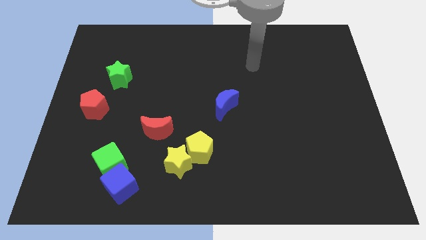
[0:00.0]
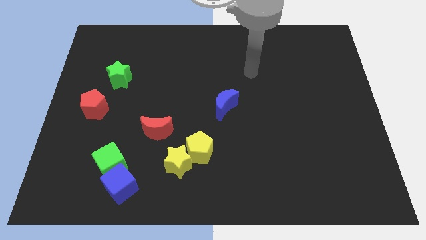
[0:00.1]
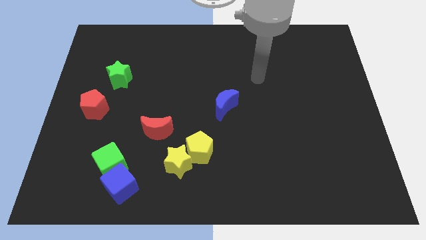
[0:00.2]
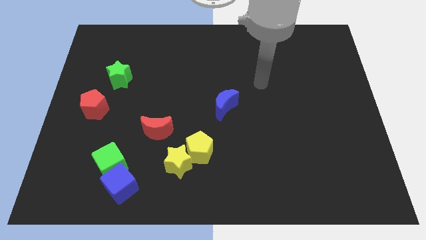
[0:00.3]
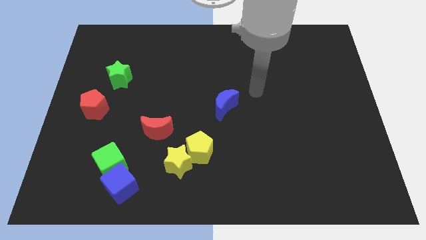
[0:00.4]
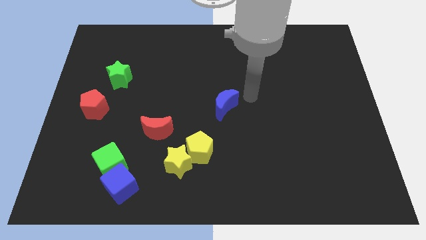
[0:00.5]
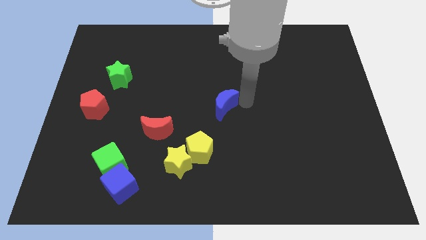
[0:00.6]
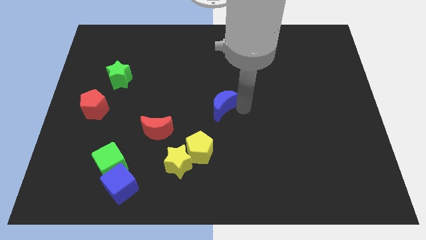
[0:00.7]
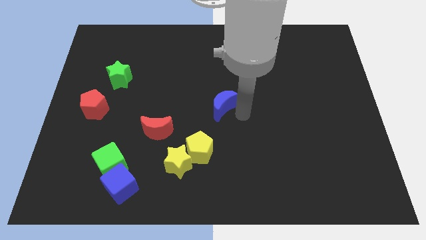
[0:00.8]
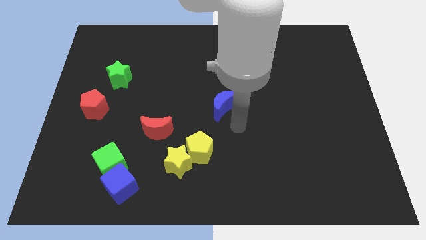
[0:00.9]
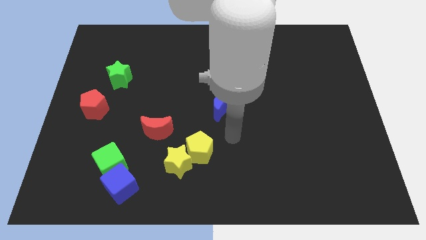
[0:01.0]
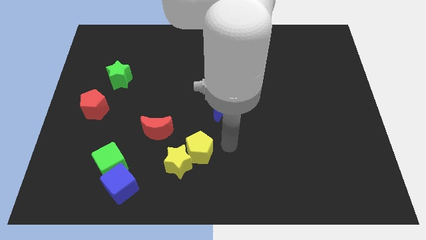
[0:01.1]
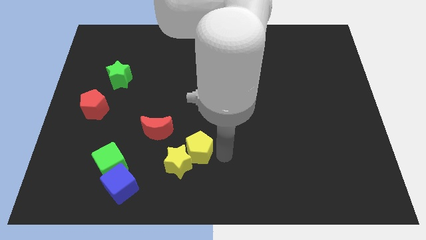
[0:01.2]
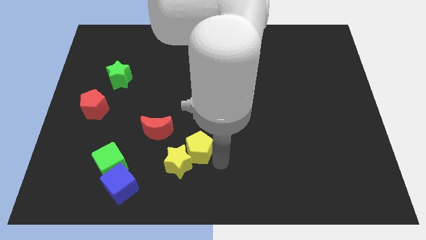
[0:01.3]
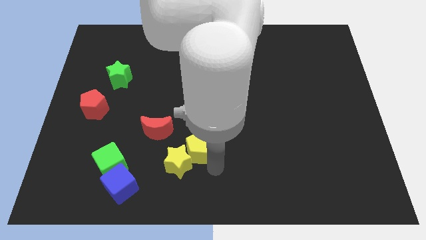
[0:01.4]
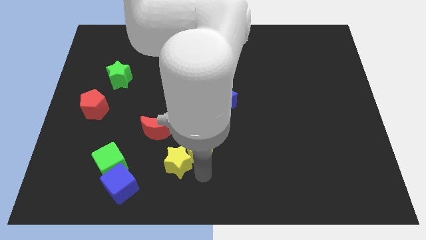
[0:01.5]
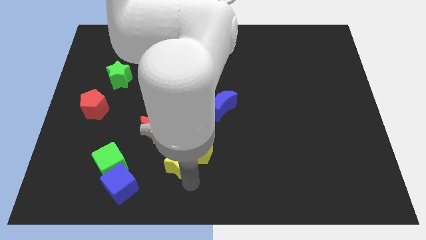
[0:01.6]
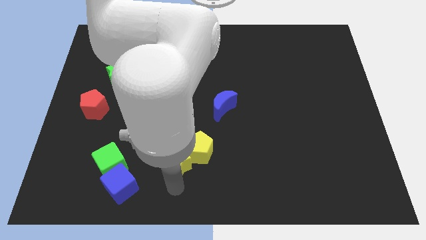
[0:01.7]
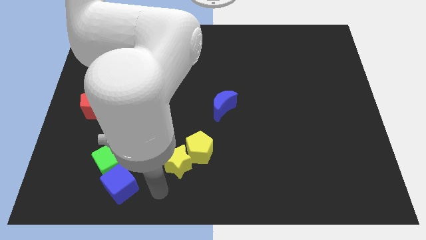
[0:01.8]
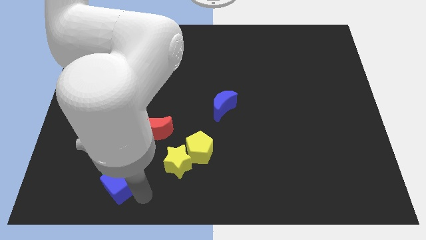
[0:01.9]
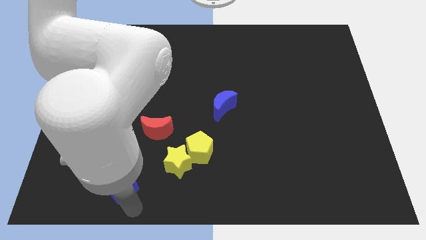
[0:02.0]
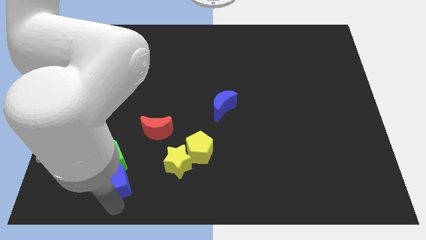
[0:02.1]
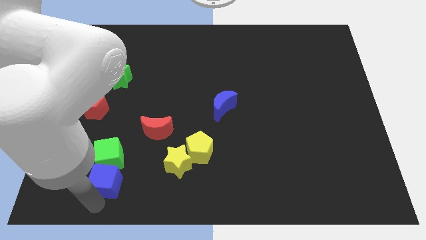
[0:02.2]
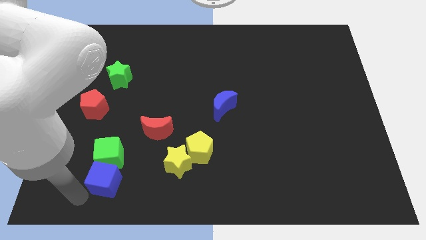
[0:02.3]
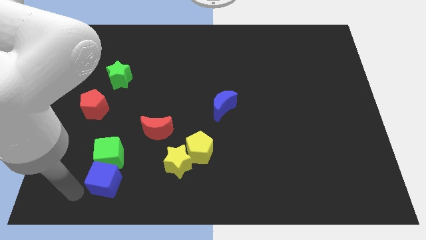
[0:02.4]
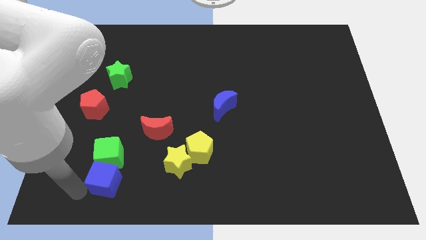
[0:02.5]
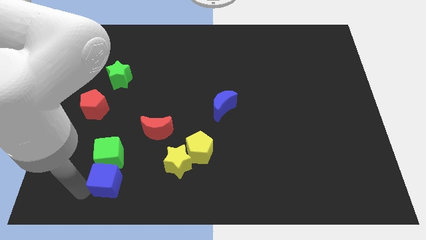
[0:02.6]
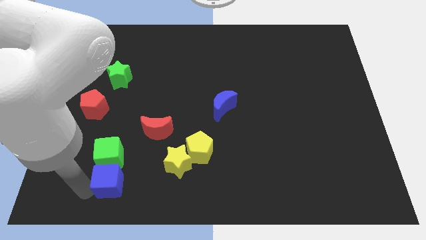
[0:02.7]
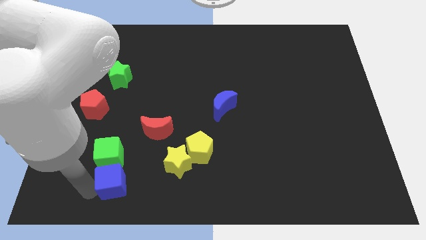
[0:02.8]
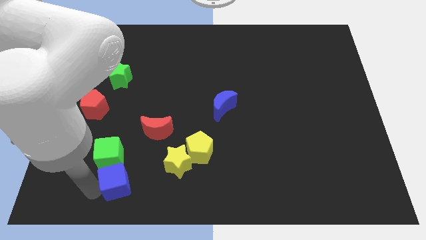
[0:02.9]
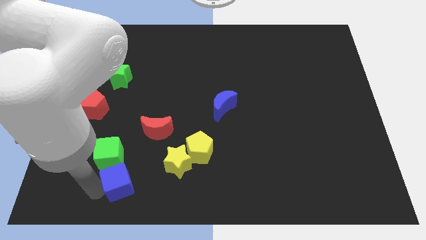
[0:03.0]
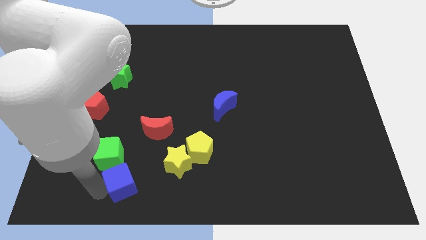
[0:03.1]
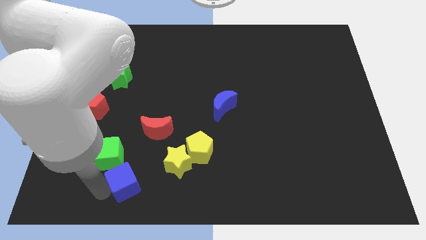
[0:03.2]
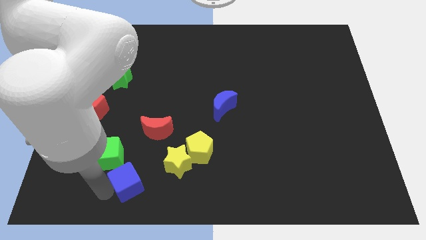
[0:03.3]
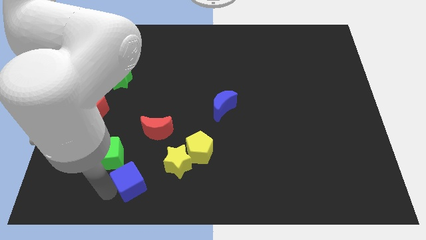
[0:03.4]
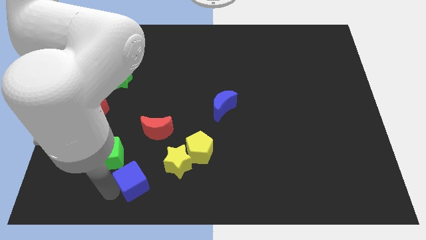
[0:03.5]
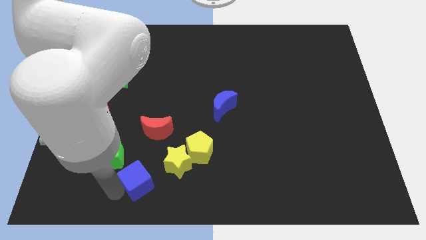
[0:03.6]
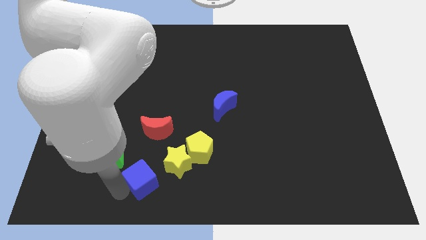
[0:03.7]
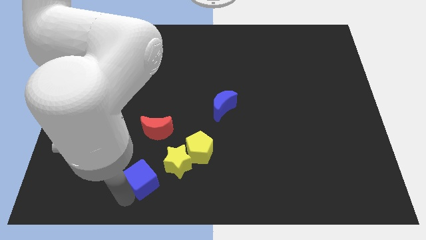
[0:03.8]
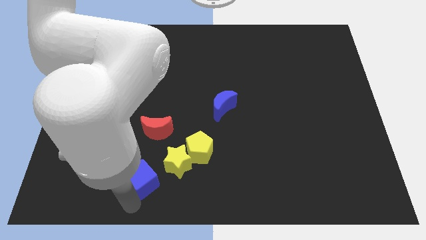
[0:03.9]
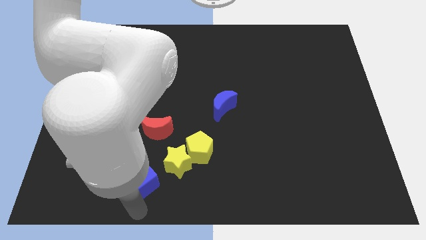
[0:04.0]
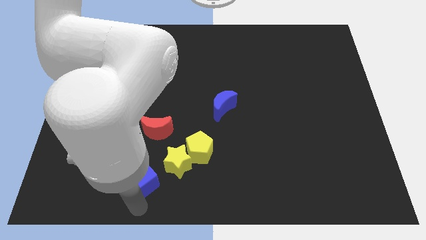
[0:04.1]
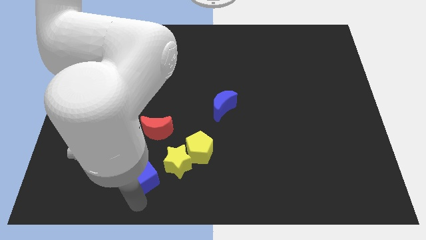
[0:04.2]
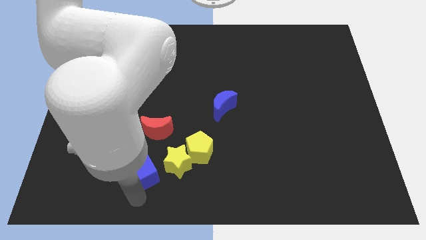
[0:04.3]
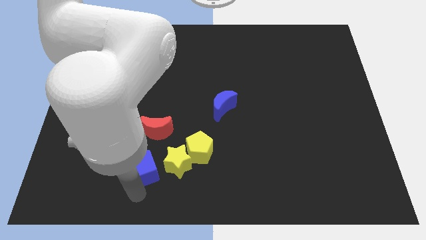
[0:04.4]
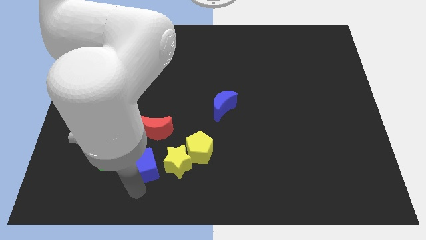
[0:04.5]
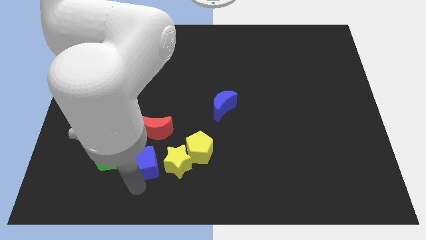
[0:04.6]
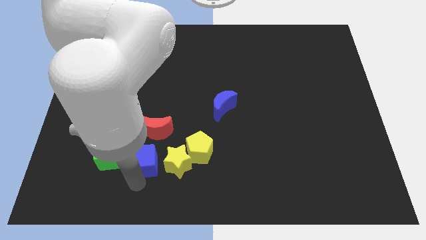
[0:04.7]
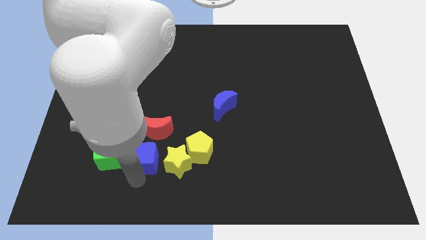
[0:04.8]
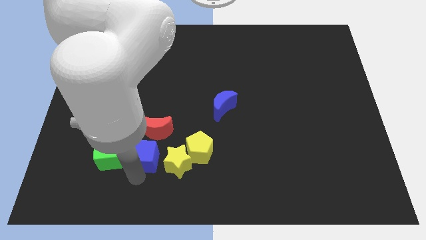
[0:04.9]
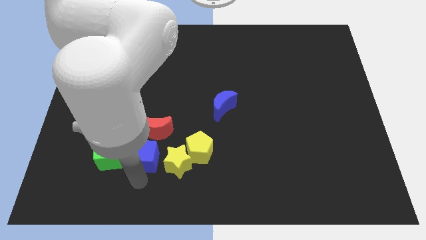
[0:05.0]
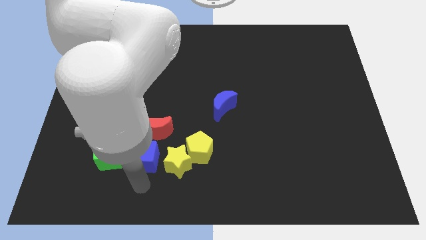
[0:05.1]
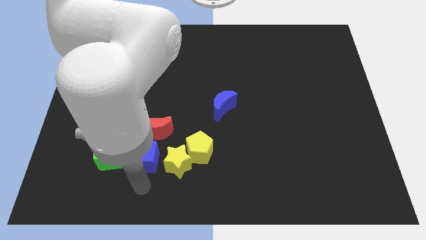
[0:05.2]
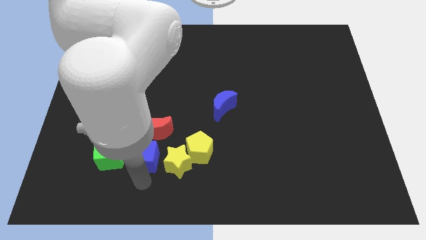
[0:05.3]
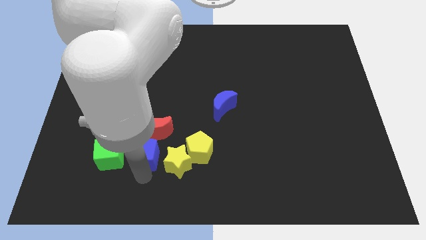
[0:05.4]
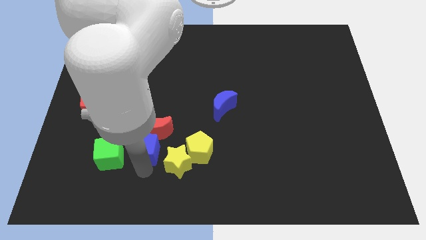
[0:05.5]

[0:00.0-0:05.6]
put the blue cube next to the red moon

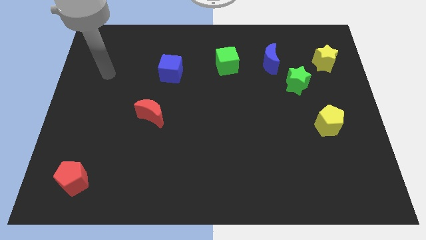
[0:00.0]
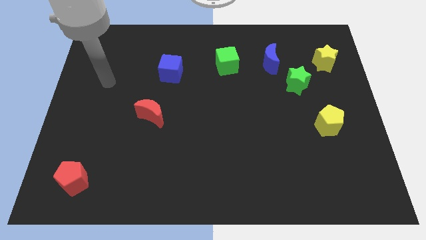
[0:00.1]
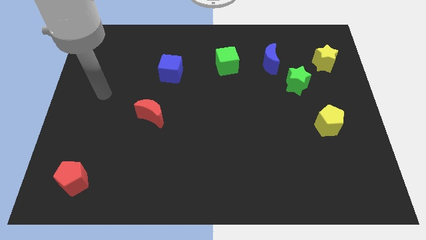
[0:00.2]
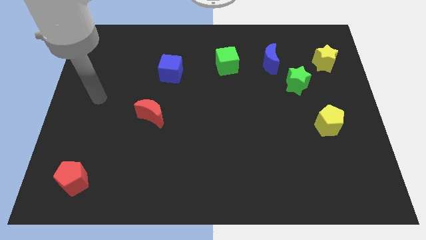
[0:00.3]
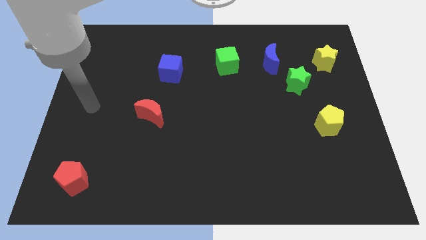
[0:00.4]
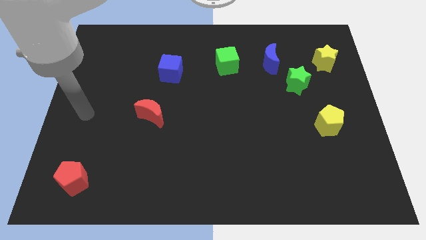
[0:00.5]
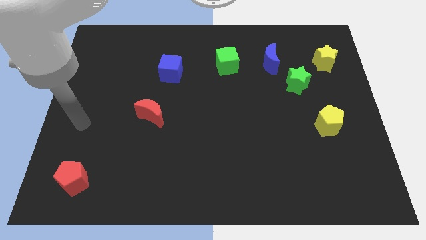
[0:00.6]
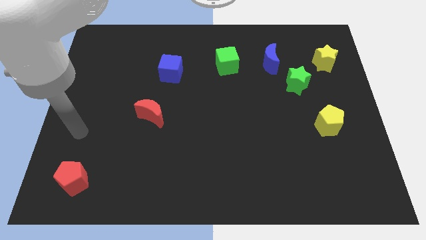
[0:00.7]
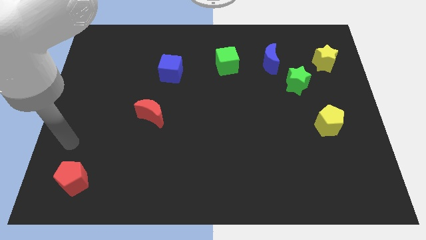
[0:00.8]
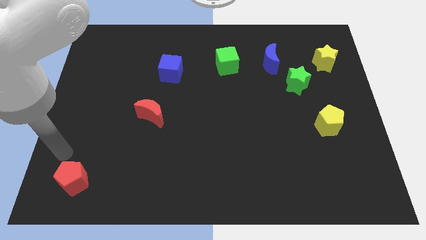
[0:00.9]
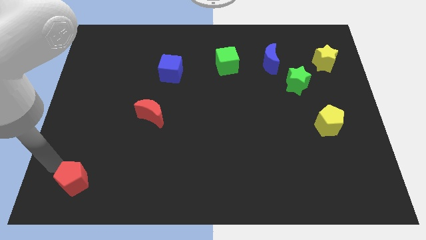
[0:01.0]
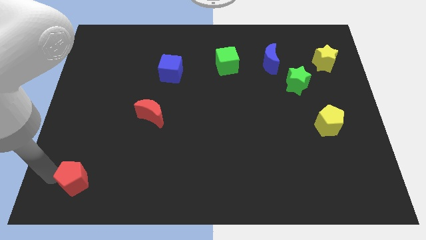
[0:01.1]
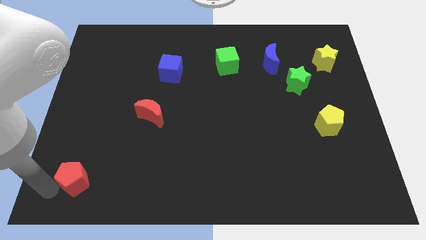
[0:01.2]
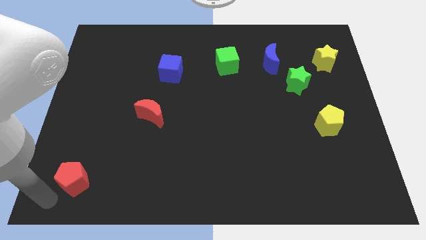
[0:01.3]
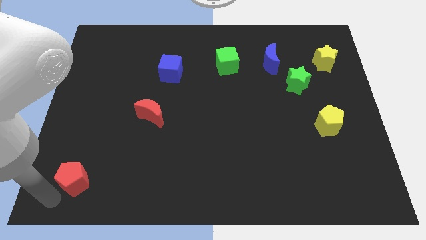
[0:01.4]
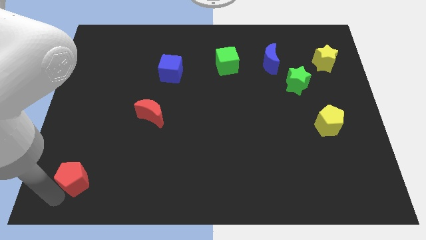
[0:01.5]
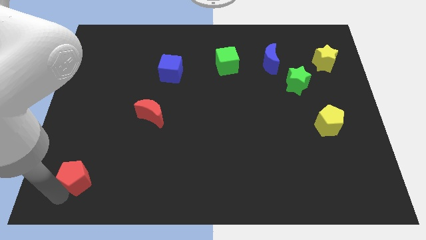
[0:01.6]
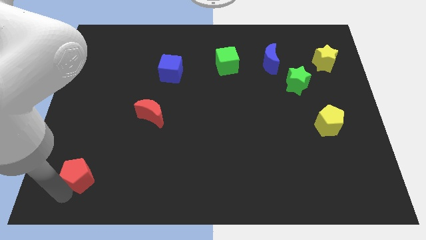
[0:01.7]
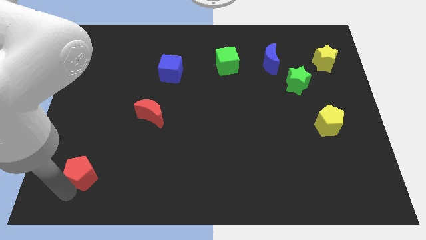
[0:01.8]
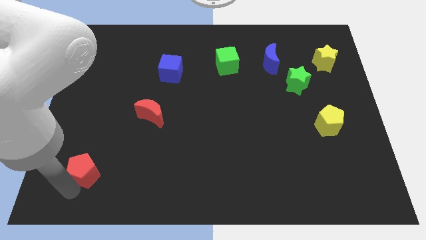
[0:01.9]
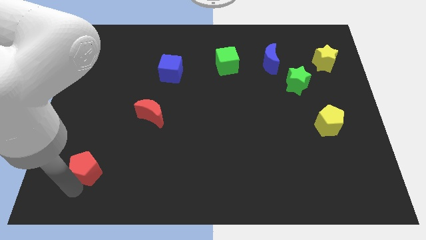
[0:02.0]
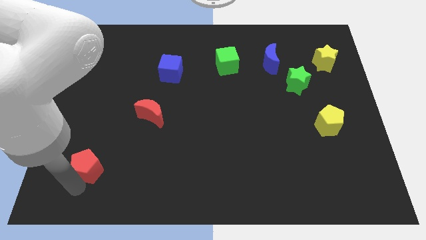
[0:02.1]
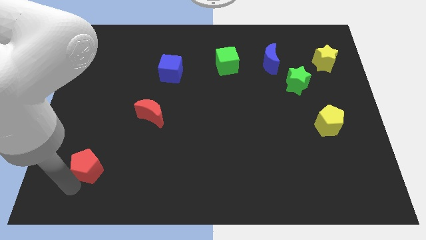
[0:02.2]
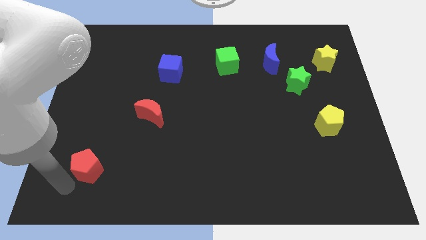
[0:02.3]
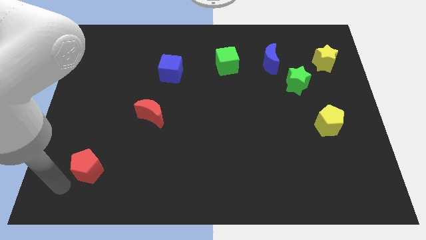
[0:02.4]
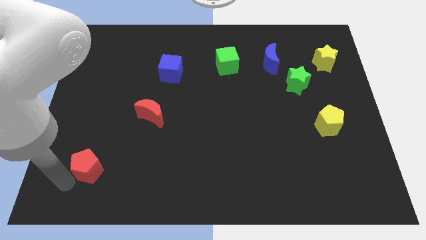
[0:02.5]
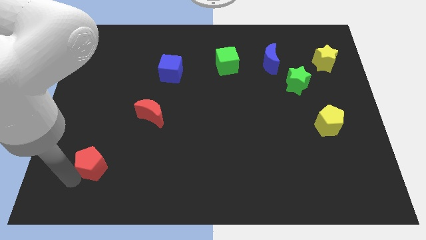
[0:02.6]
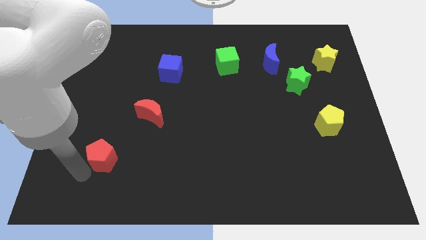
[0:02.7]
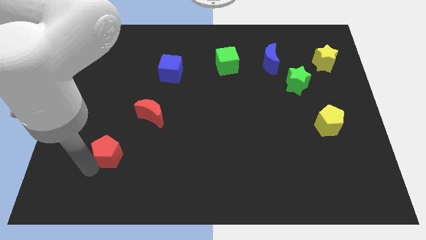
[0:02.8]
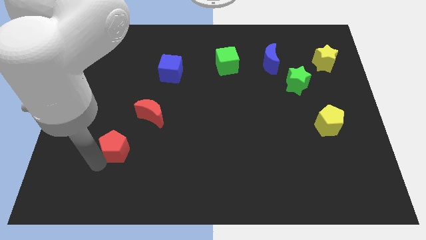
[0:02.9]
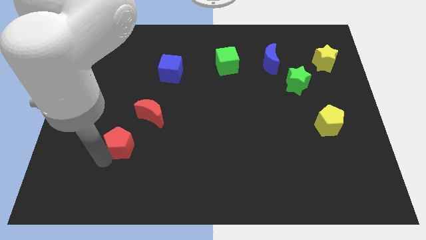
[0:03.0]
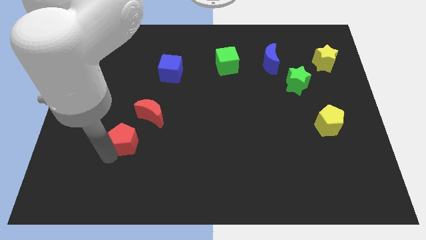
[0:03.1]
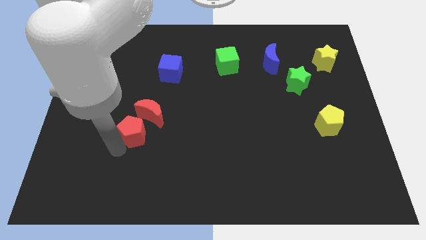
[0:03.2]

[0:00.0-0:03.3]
put the red pentagon to the red moon
